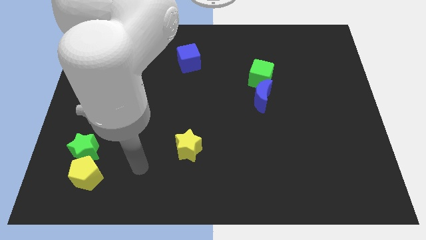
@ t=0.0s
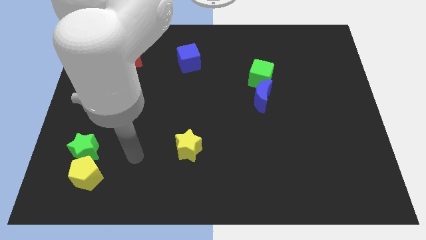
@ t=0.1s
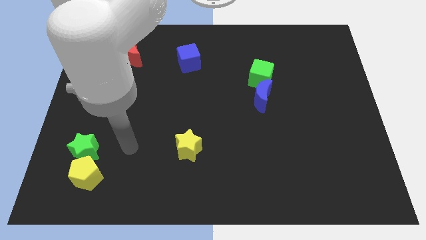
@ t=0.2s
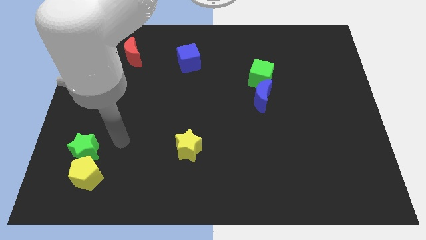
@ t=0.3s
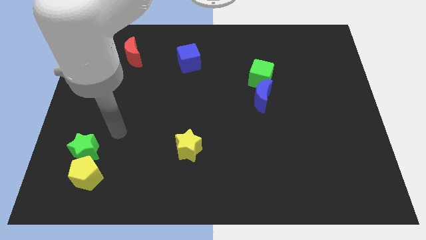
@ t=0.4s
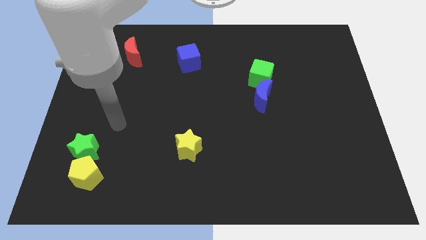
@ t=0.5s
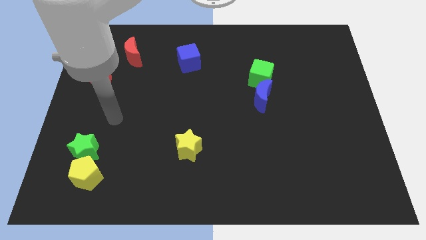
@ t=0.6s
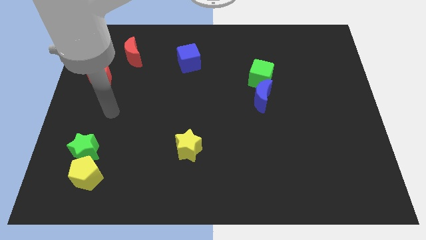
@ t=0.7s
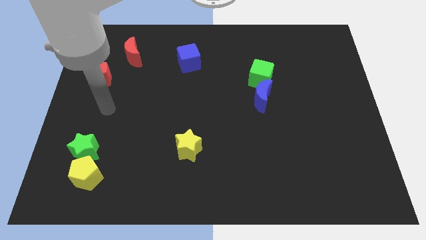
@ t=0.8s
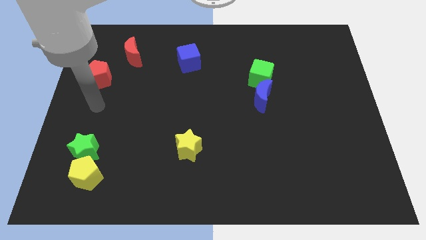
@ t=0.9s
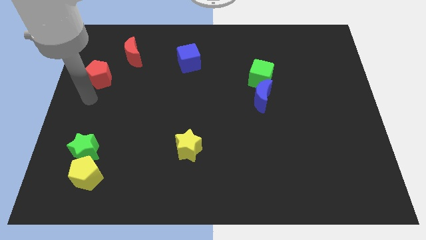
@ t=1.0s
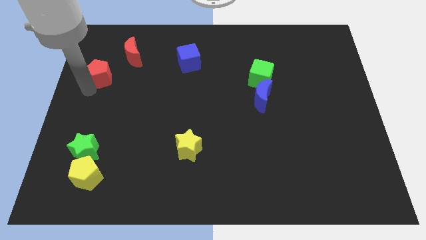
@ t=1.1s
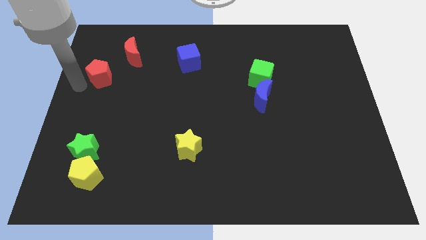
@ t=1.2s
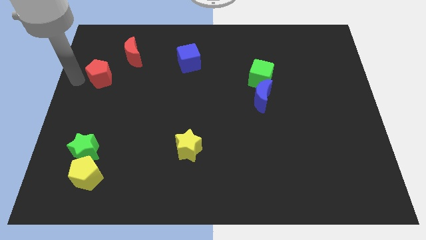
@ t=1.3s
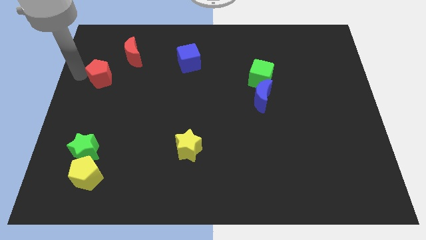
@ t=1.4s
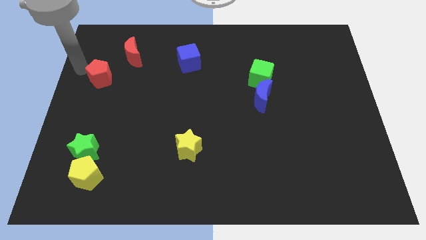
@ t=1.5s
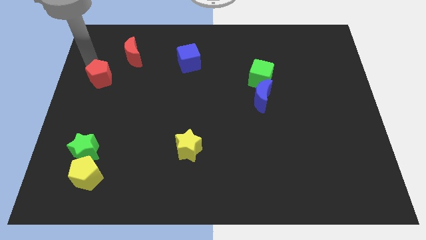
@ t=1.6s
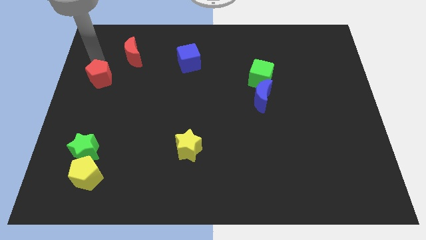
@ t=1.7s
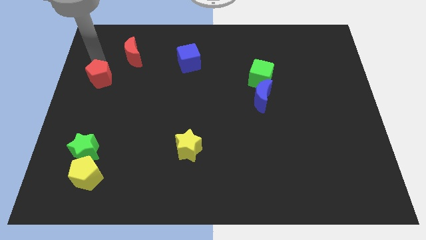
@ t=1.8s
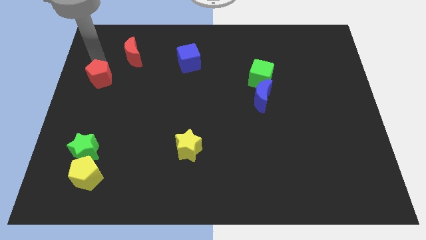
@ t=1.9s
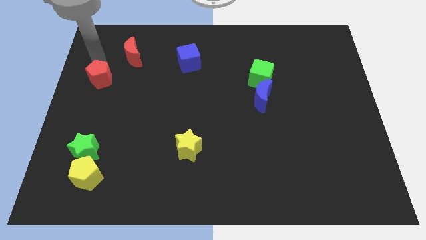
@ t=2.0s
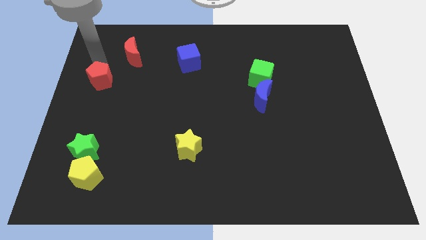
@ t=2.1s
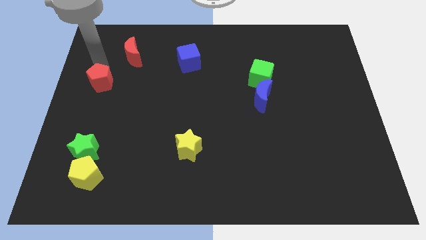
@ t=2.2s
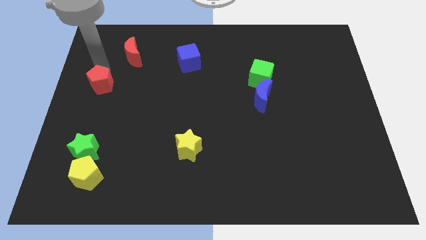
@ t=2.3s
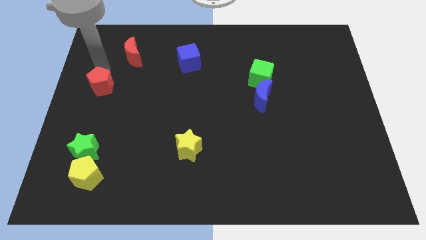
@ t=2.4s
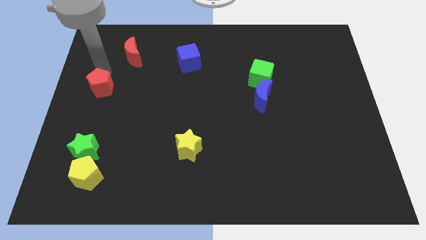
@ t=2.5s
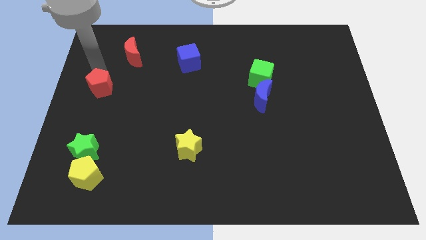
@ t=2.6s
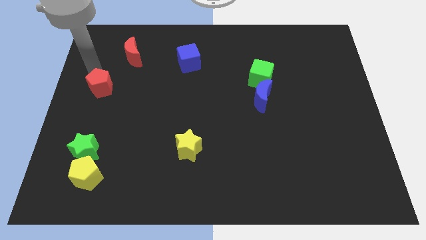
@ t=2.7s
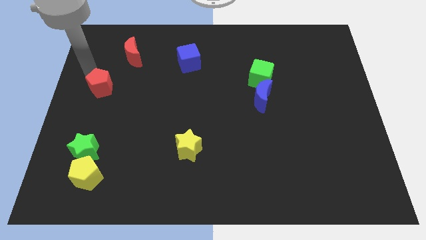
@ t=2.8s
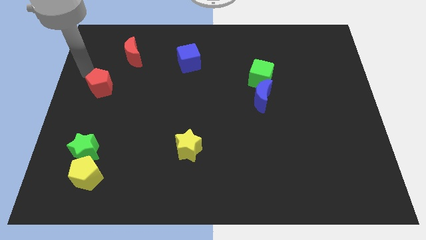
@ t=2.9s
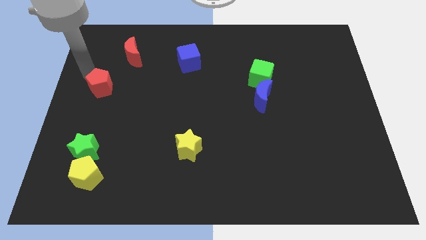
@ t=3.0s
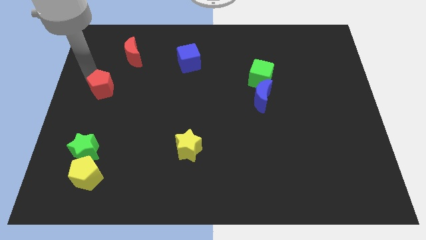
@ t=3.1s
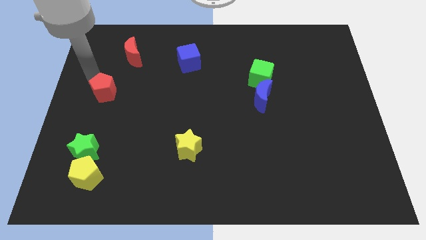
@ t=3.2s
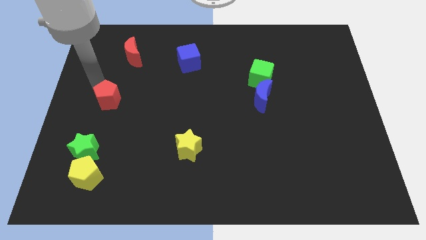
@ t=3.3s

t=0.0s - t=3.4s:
push the red pentagon a bit down and then to the right

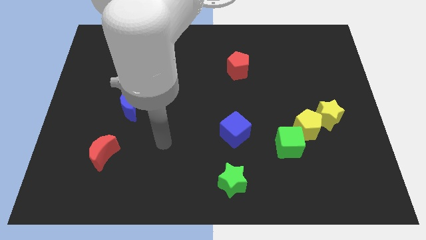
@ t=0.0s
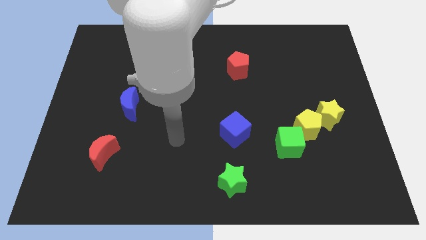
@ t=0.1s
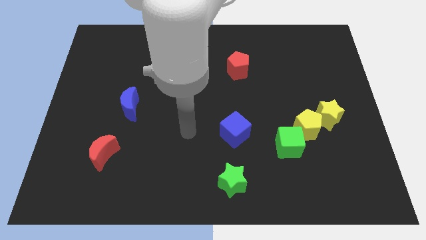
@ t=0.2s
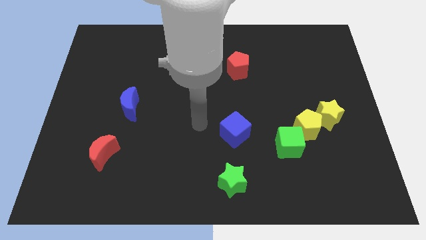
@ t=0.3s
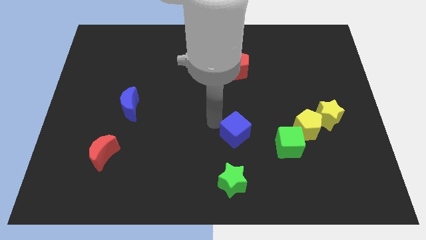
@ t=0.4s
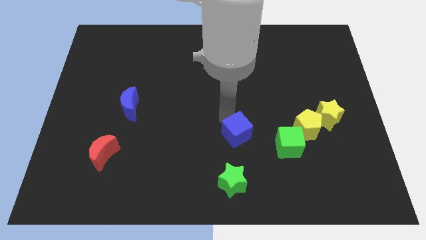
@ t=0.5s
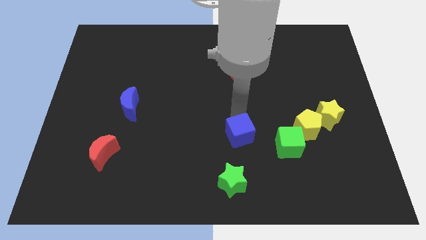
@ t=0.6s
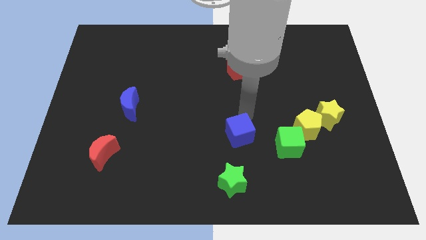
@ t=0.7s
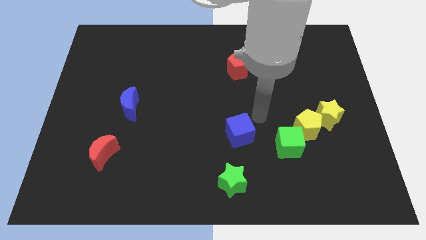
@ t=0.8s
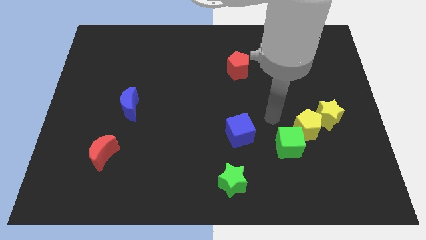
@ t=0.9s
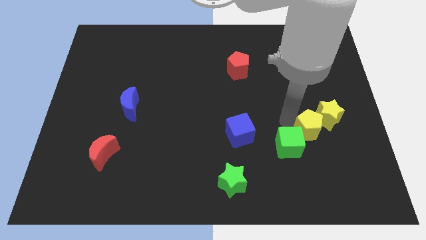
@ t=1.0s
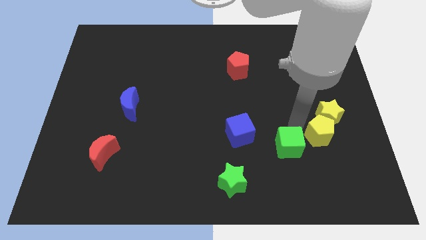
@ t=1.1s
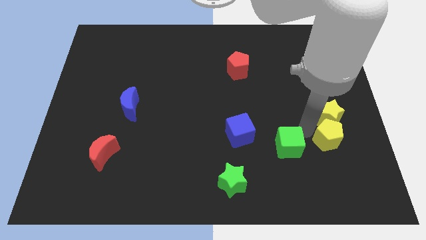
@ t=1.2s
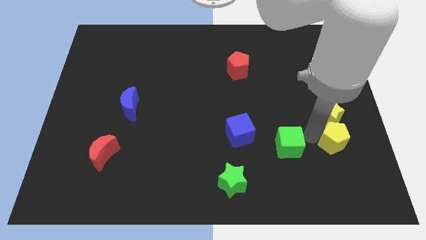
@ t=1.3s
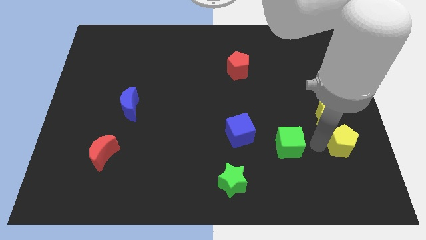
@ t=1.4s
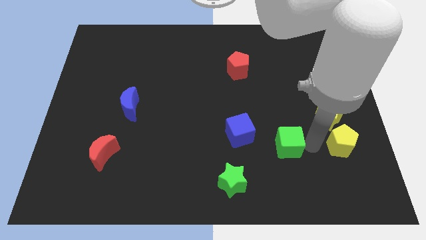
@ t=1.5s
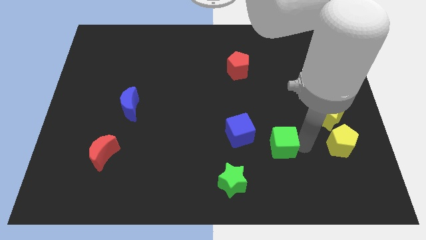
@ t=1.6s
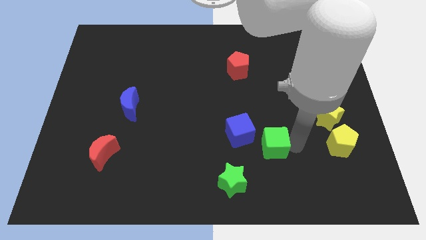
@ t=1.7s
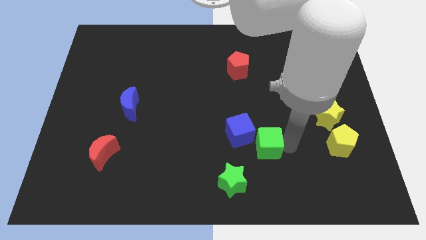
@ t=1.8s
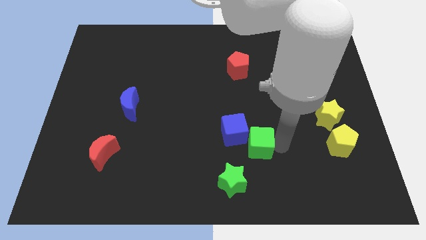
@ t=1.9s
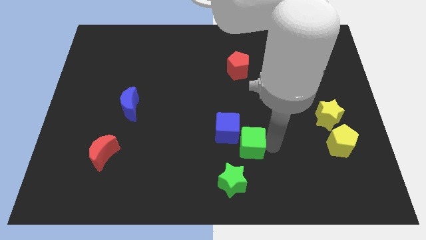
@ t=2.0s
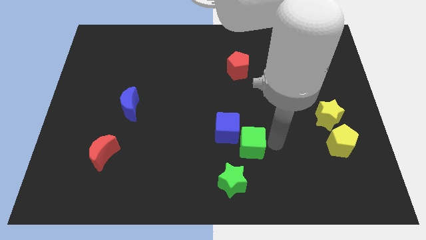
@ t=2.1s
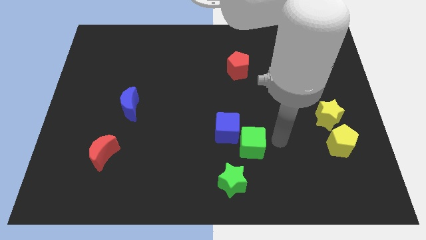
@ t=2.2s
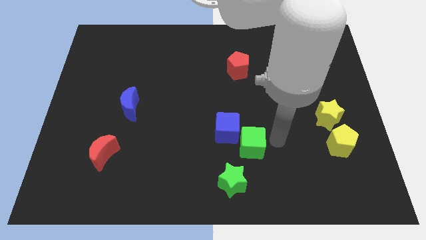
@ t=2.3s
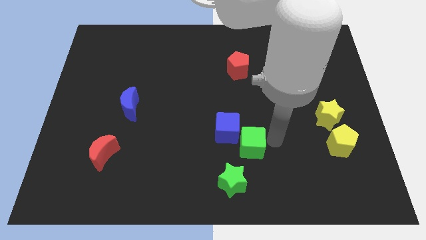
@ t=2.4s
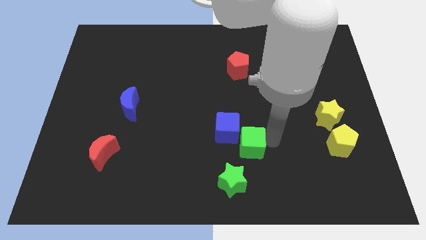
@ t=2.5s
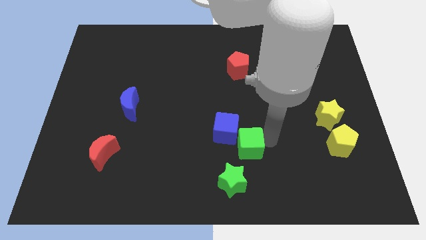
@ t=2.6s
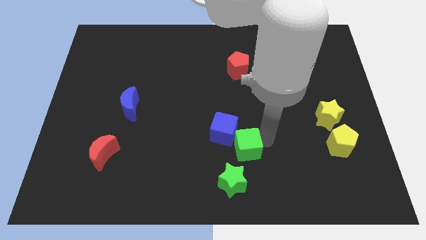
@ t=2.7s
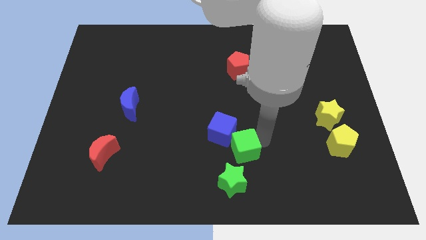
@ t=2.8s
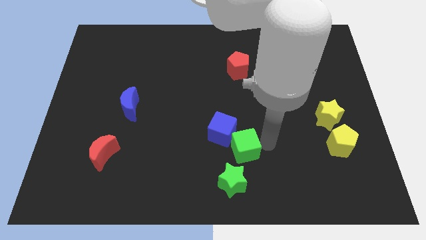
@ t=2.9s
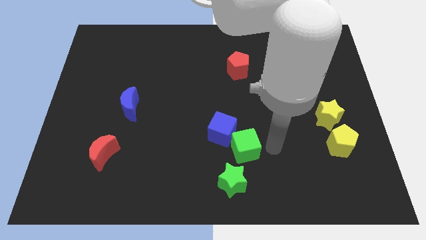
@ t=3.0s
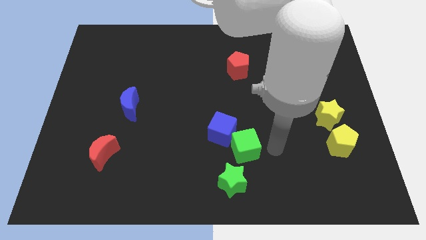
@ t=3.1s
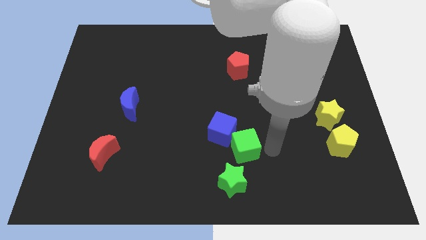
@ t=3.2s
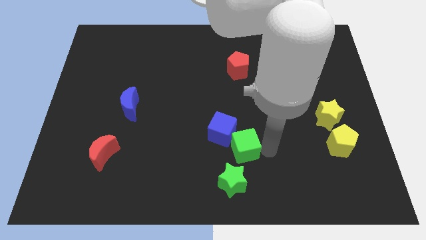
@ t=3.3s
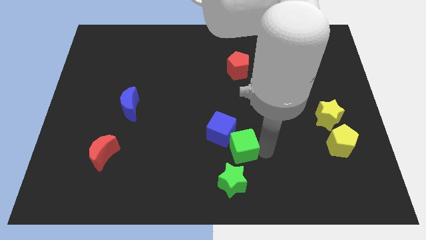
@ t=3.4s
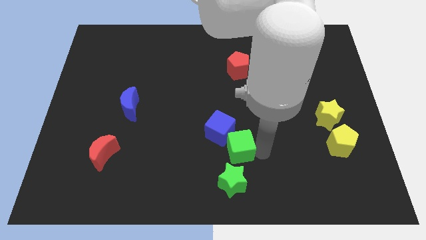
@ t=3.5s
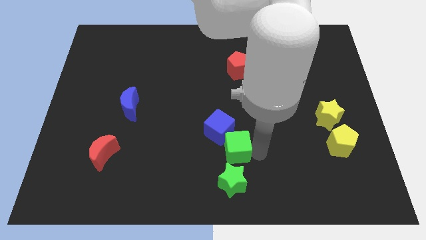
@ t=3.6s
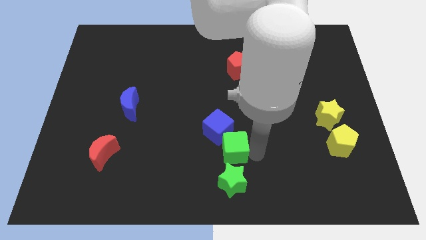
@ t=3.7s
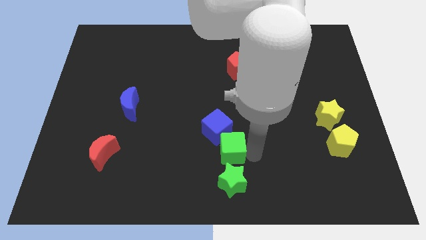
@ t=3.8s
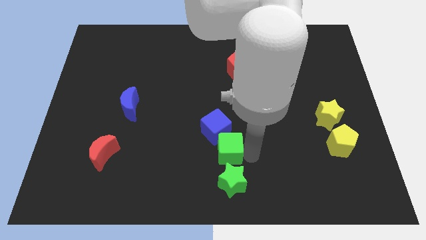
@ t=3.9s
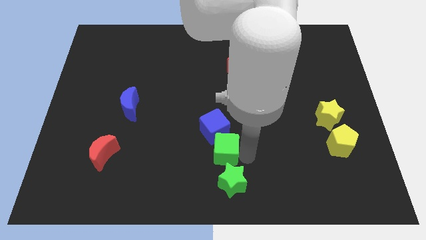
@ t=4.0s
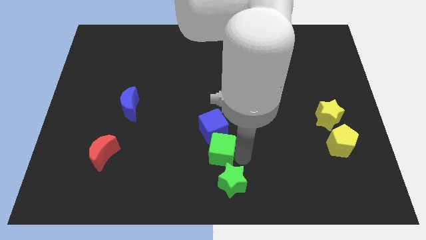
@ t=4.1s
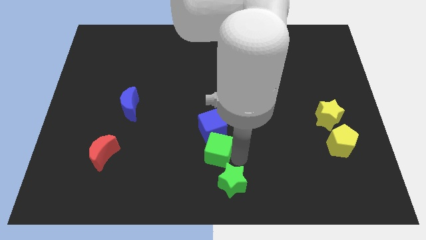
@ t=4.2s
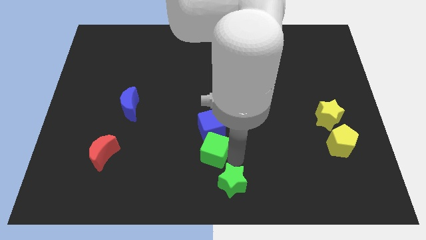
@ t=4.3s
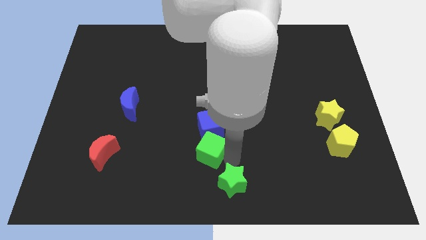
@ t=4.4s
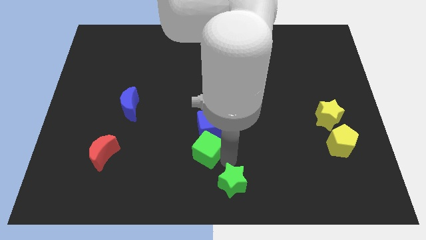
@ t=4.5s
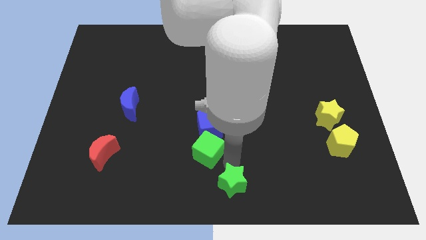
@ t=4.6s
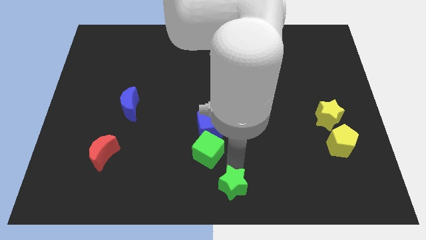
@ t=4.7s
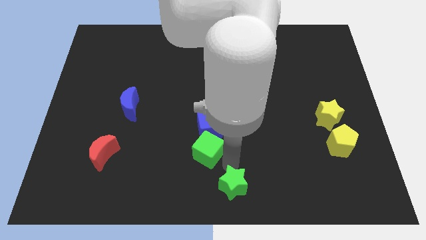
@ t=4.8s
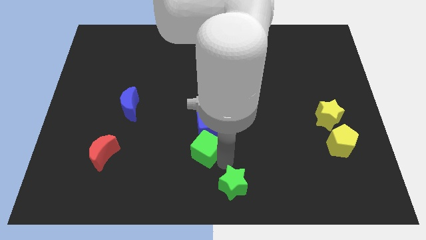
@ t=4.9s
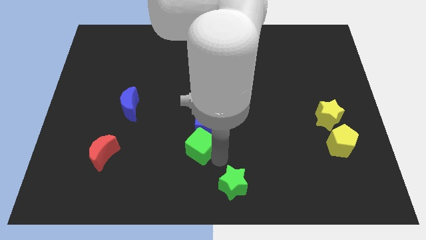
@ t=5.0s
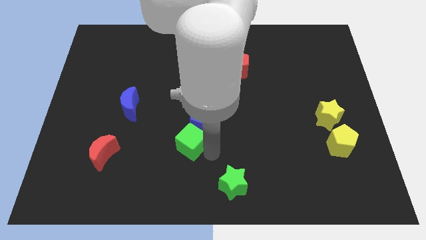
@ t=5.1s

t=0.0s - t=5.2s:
slide the green cube to the left
